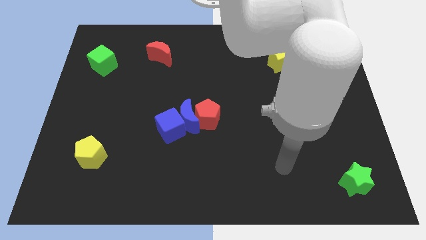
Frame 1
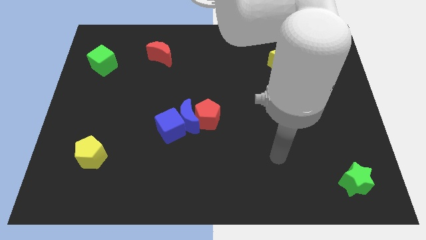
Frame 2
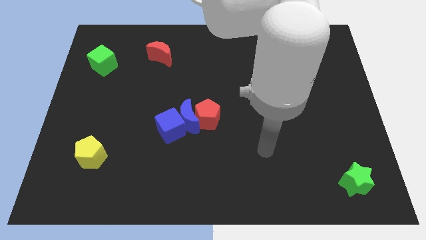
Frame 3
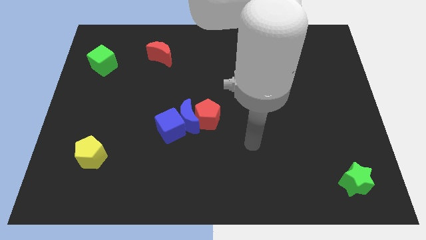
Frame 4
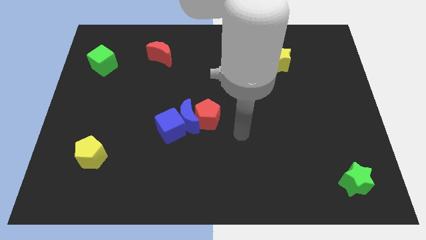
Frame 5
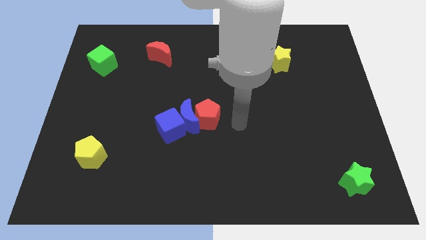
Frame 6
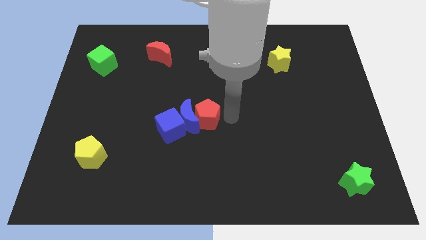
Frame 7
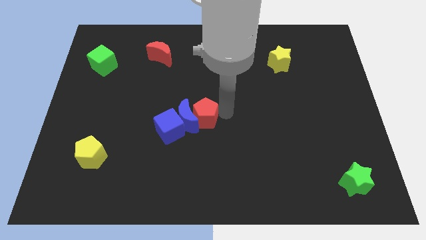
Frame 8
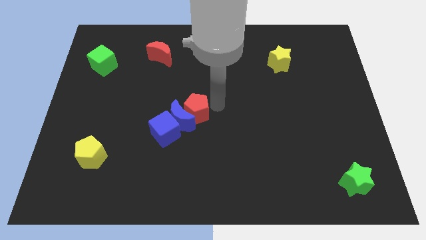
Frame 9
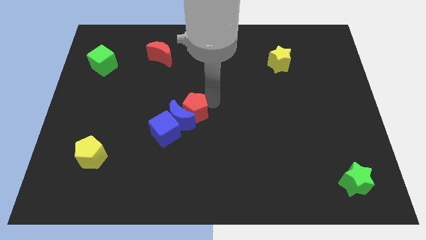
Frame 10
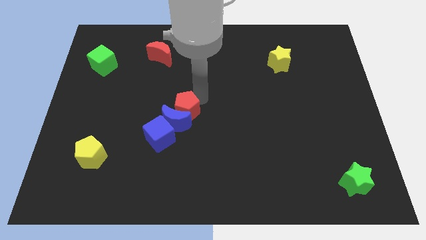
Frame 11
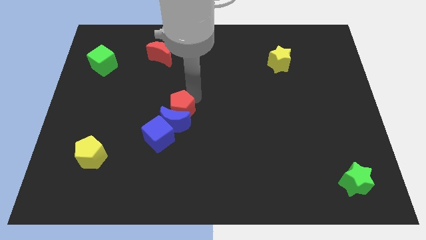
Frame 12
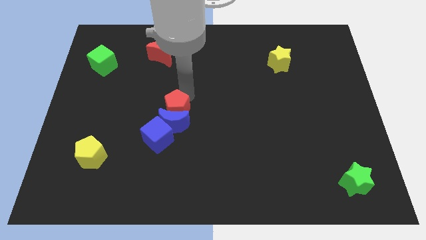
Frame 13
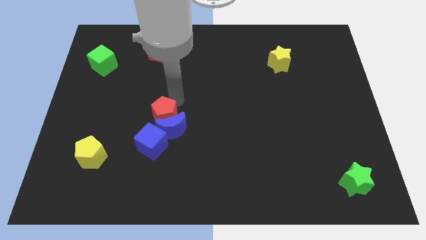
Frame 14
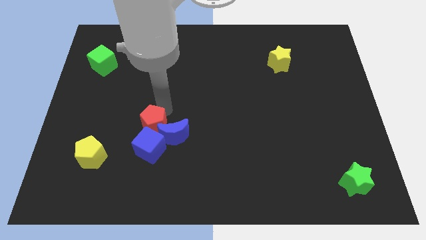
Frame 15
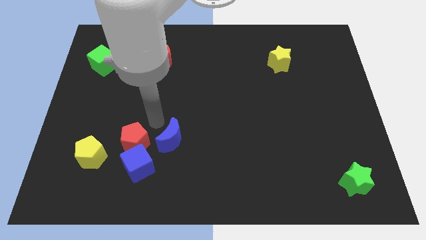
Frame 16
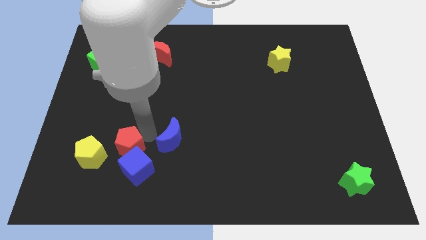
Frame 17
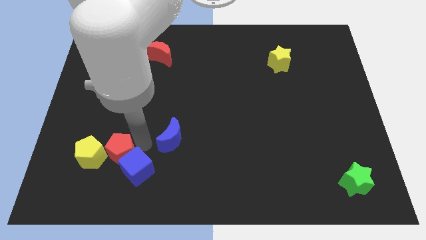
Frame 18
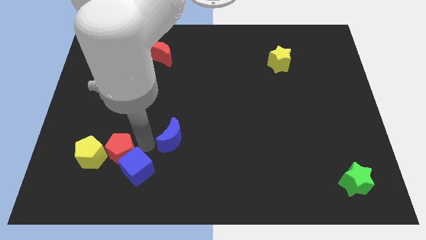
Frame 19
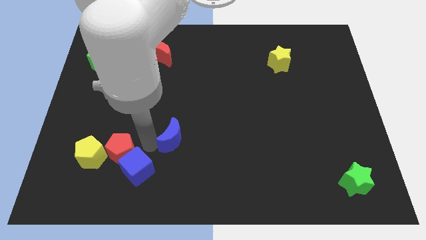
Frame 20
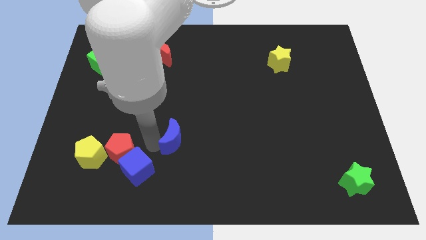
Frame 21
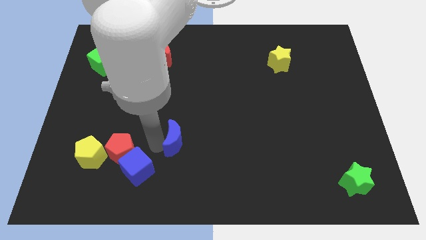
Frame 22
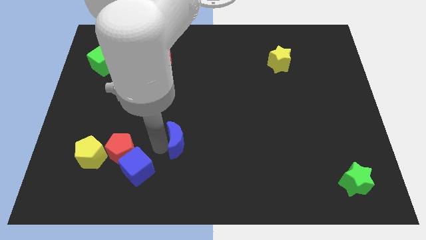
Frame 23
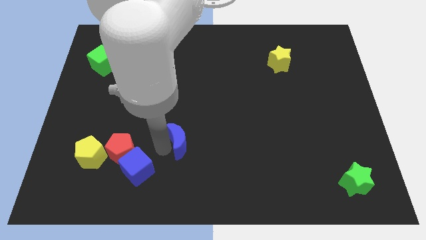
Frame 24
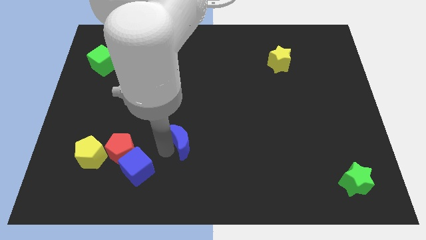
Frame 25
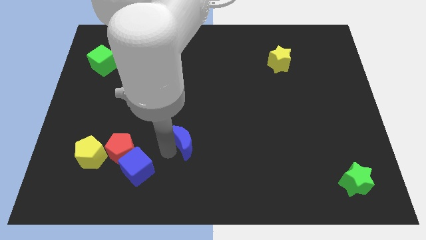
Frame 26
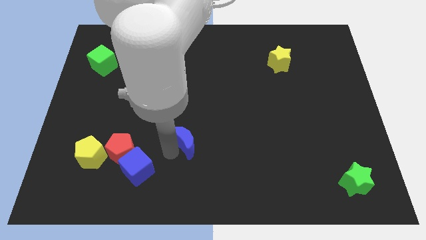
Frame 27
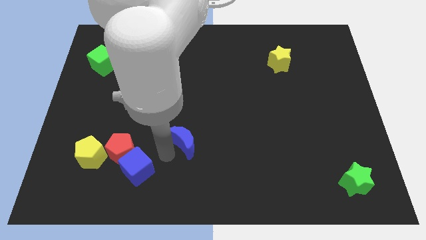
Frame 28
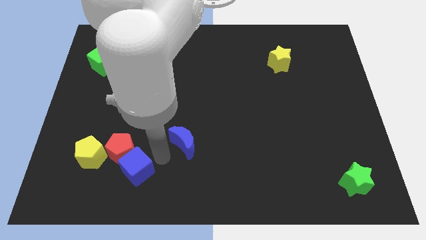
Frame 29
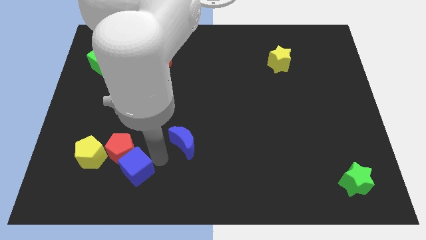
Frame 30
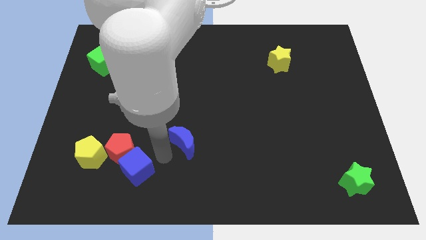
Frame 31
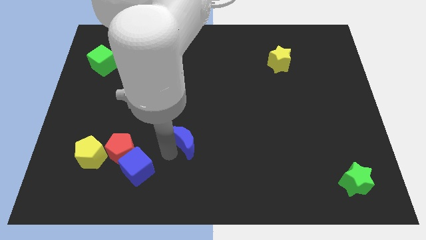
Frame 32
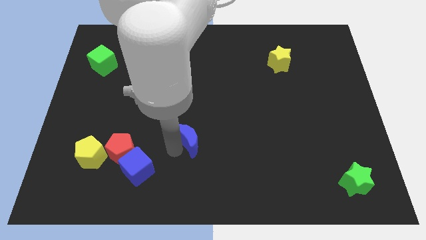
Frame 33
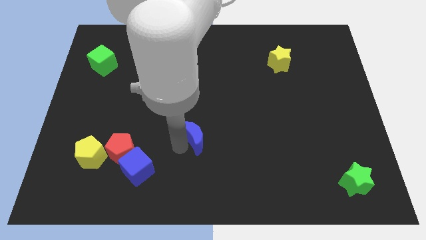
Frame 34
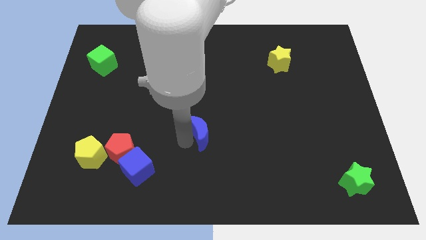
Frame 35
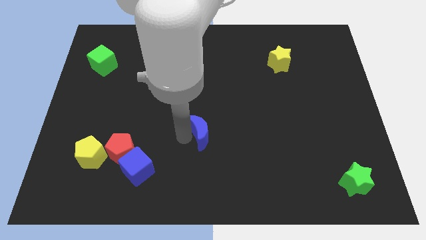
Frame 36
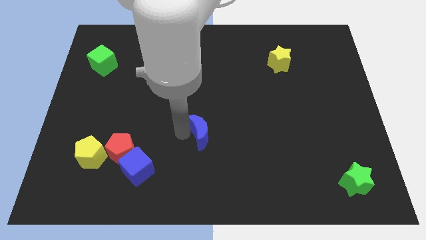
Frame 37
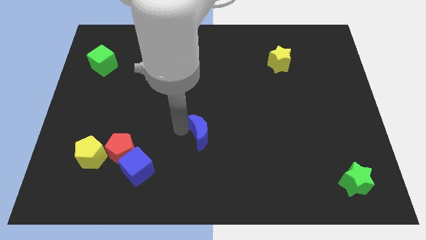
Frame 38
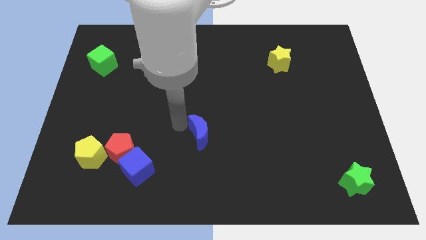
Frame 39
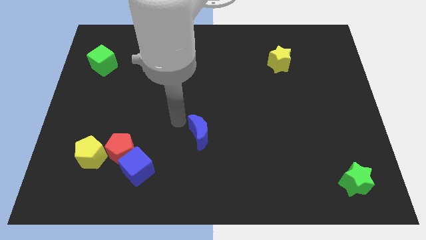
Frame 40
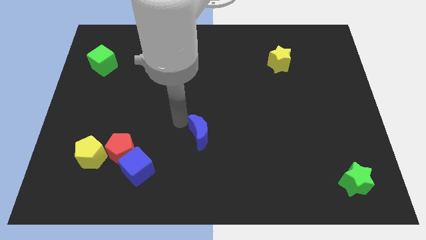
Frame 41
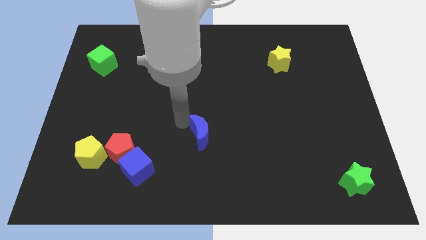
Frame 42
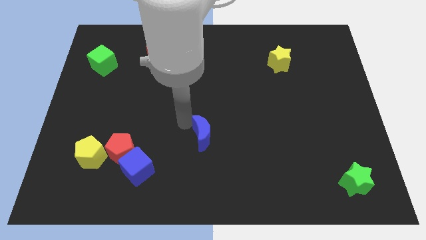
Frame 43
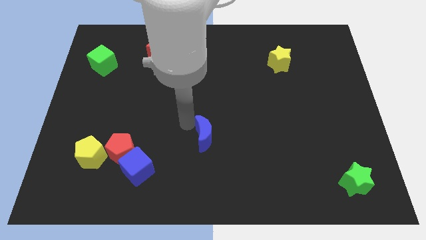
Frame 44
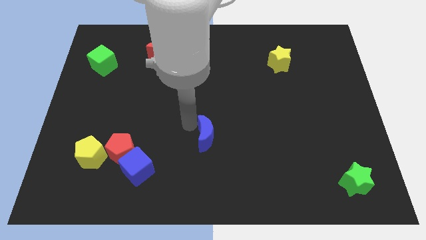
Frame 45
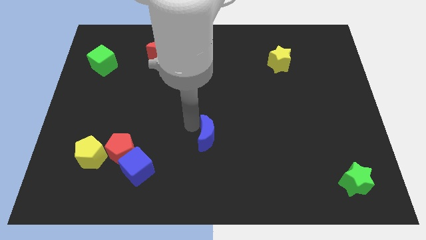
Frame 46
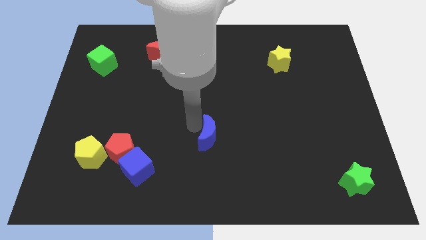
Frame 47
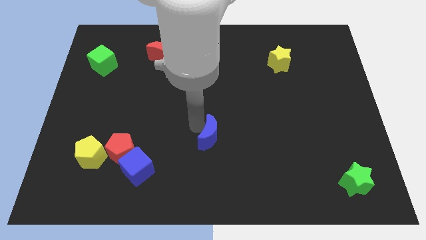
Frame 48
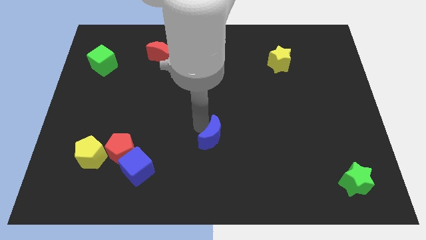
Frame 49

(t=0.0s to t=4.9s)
slide the blue moon a little downwards and right diagonally

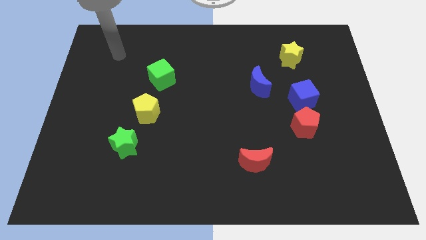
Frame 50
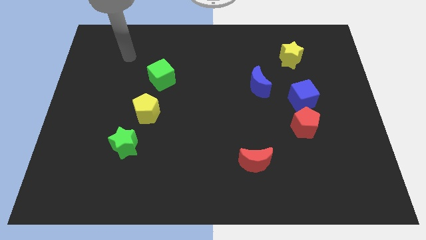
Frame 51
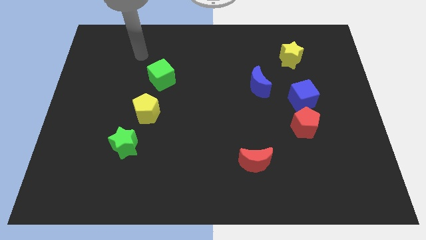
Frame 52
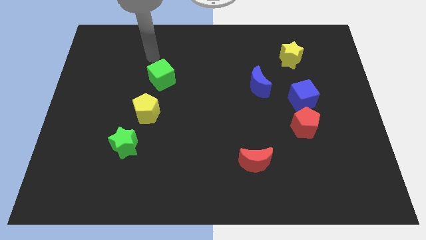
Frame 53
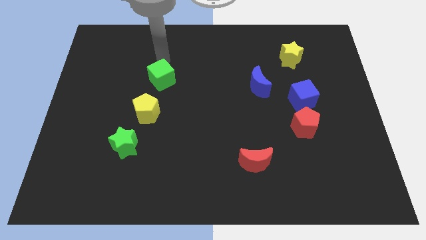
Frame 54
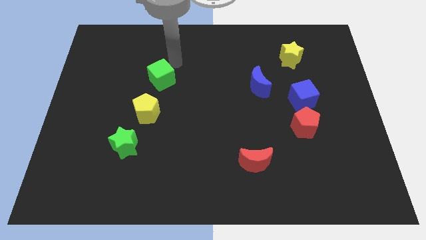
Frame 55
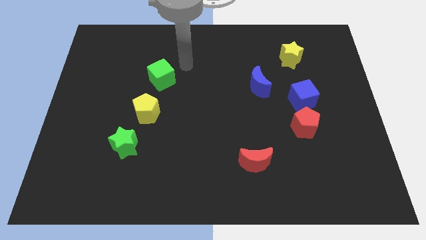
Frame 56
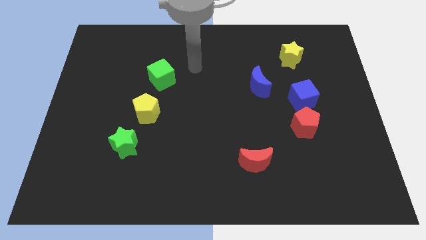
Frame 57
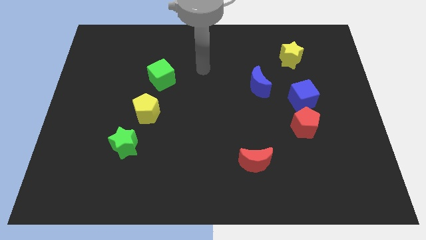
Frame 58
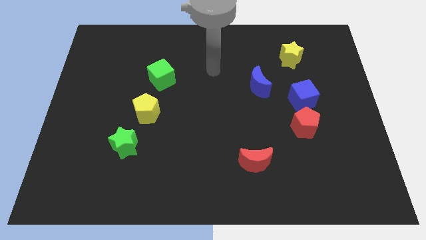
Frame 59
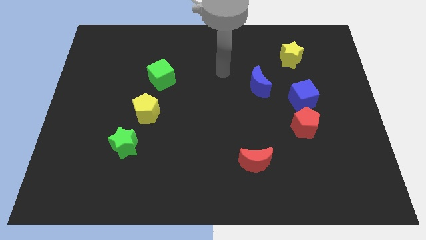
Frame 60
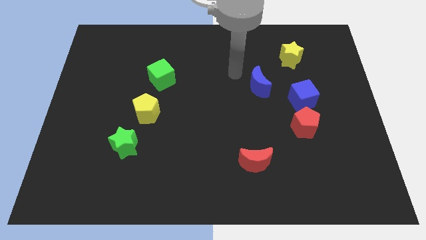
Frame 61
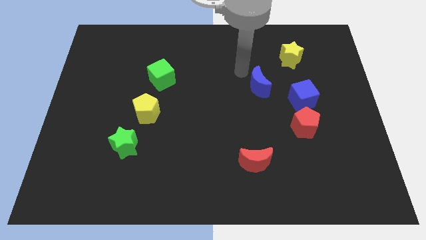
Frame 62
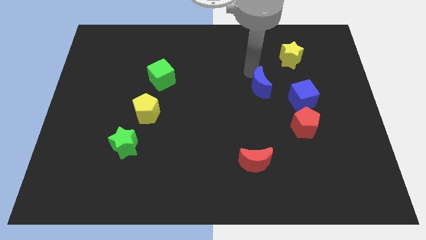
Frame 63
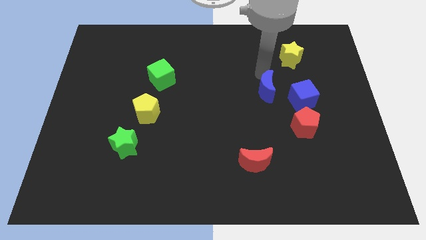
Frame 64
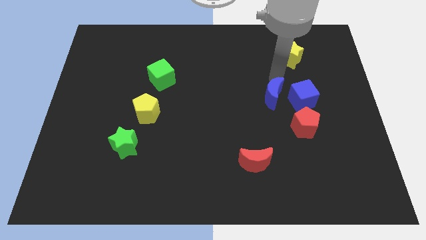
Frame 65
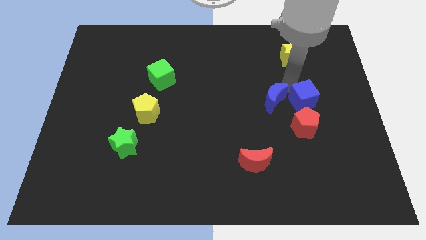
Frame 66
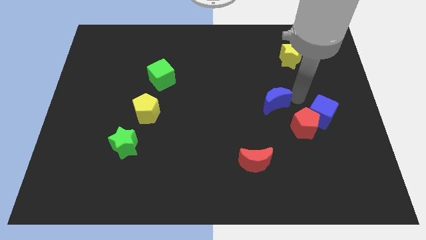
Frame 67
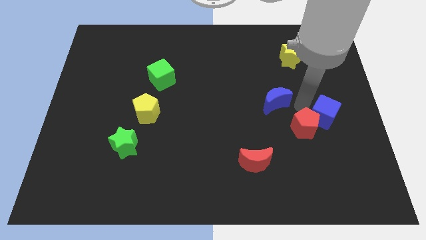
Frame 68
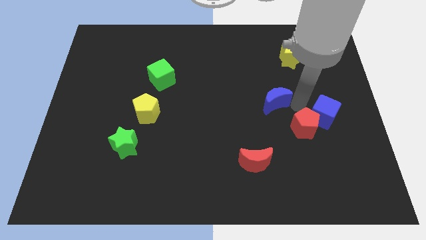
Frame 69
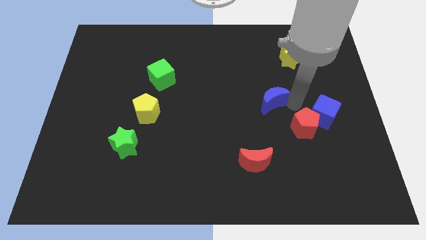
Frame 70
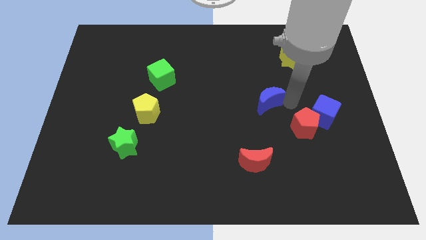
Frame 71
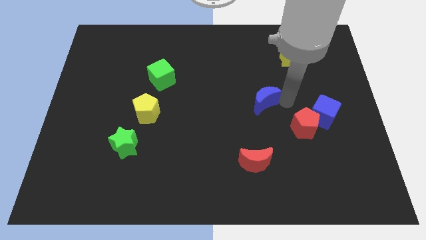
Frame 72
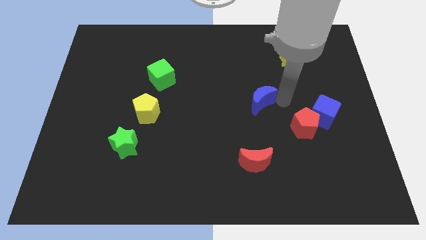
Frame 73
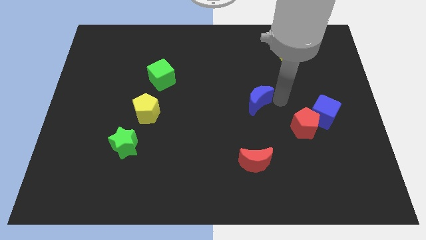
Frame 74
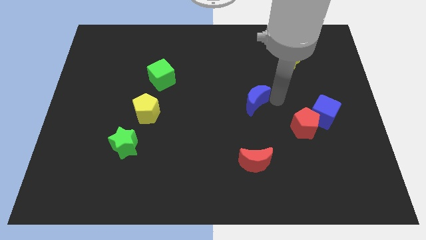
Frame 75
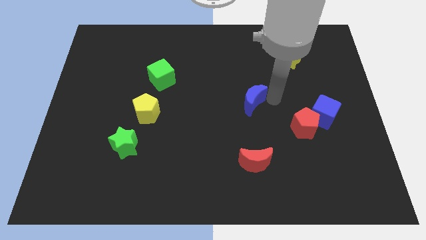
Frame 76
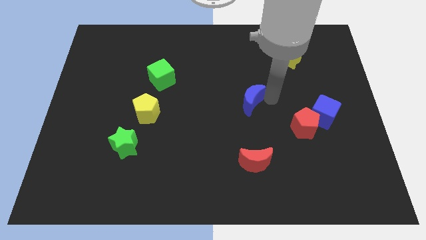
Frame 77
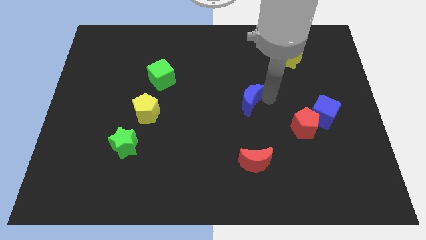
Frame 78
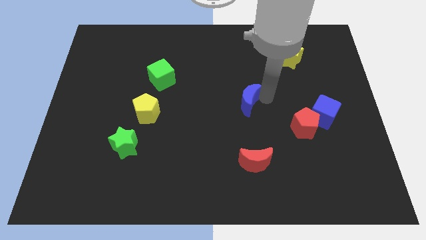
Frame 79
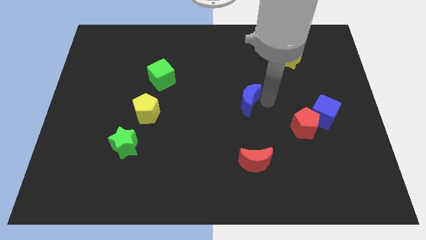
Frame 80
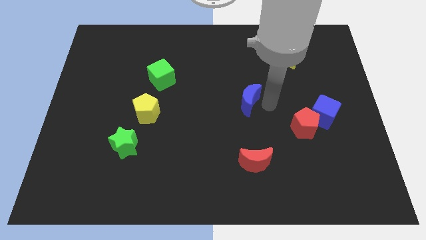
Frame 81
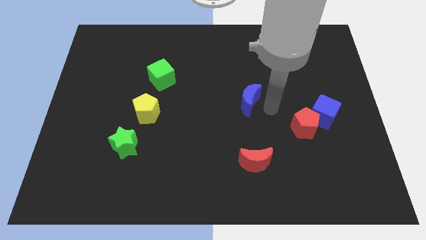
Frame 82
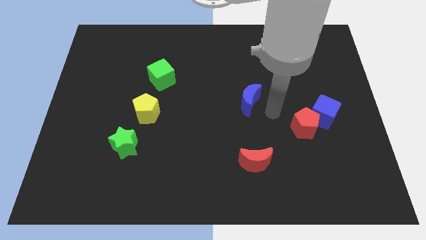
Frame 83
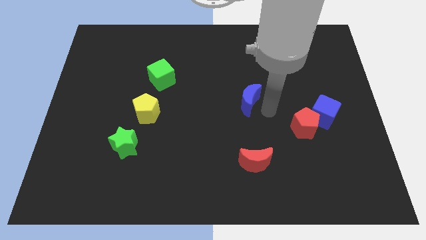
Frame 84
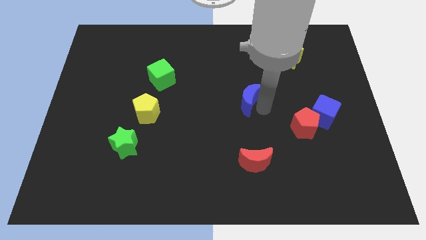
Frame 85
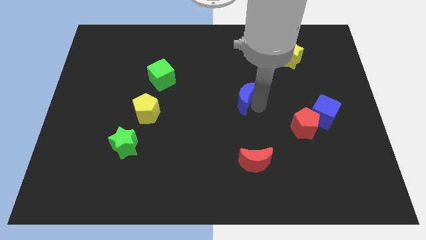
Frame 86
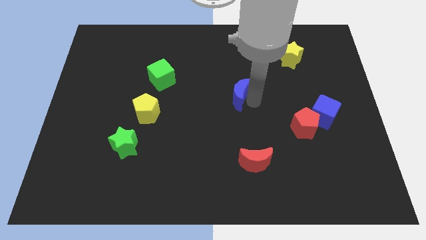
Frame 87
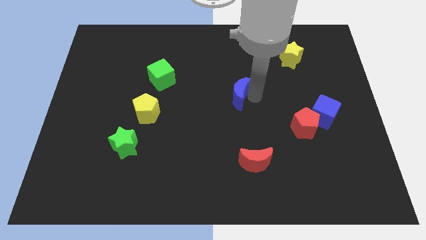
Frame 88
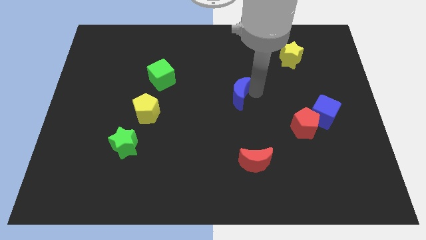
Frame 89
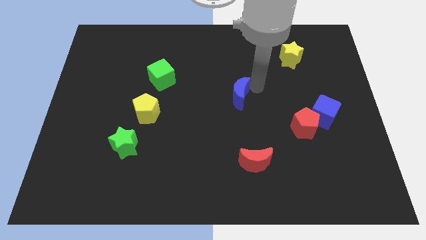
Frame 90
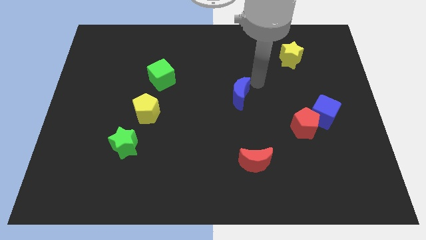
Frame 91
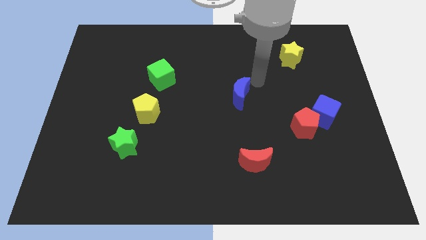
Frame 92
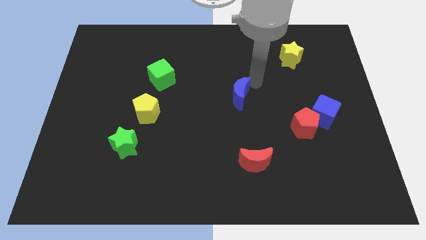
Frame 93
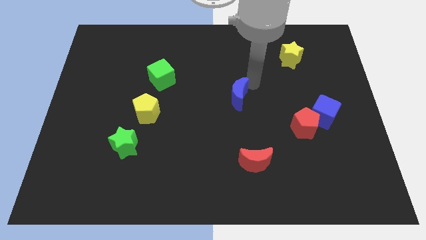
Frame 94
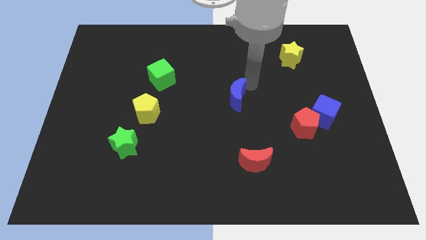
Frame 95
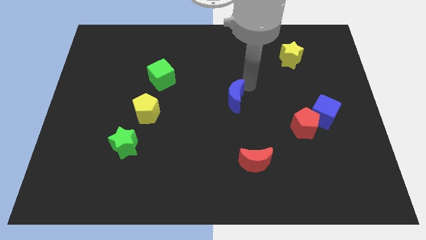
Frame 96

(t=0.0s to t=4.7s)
slide the blue moon down and then left a bit
